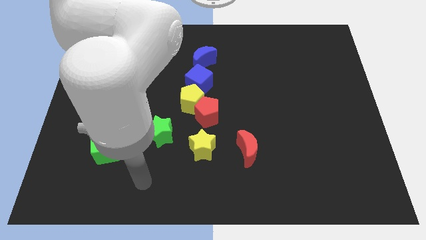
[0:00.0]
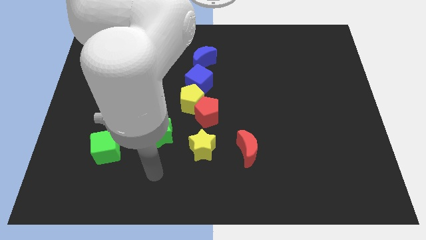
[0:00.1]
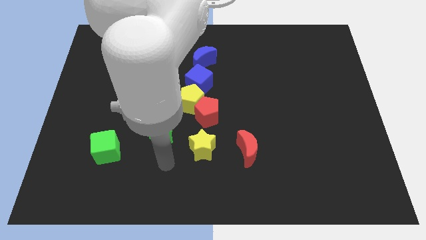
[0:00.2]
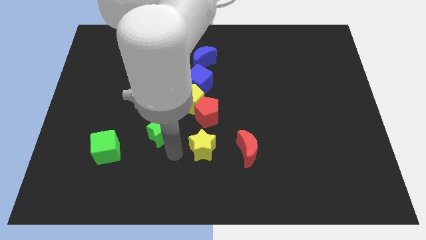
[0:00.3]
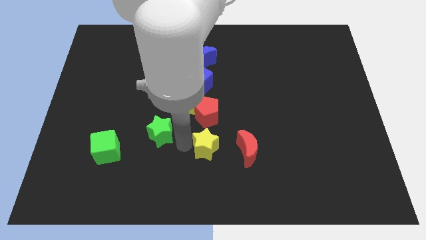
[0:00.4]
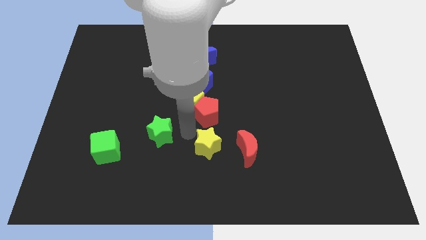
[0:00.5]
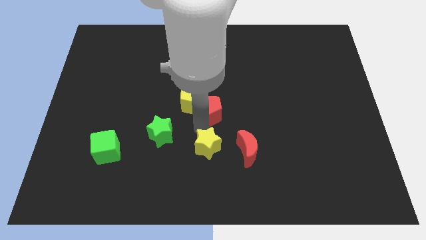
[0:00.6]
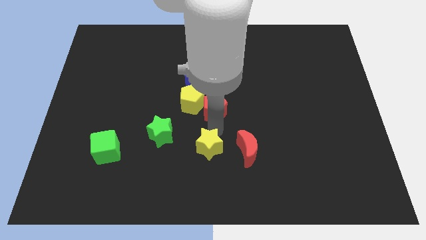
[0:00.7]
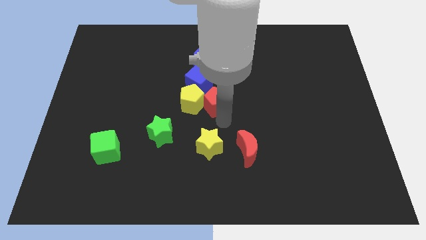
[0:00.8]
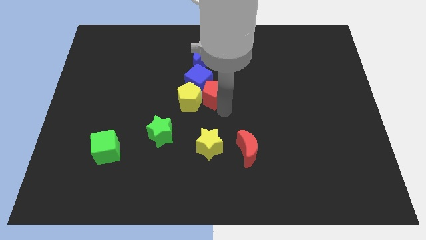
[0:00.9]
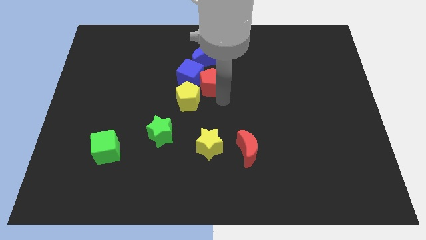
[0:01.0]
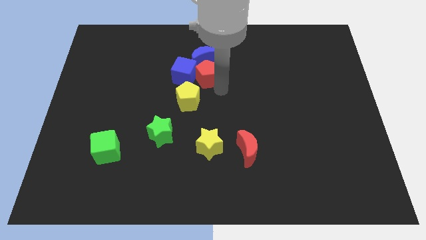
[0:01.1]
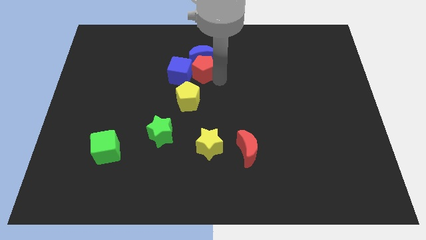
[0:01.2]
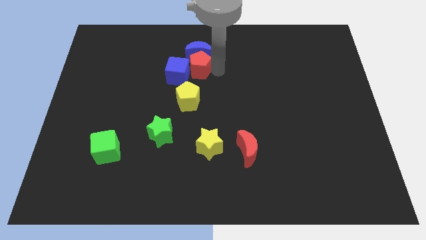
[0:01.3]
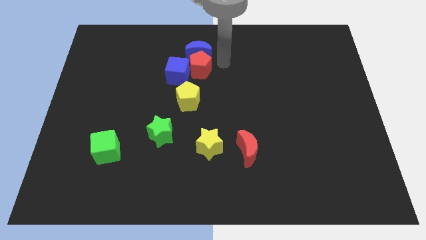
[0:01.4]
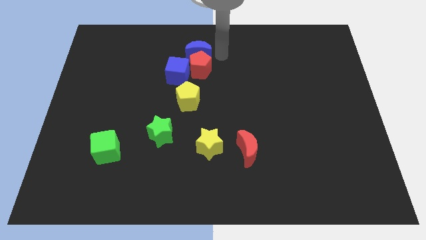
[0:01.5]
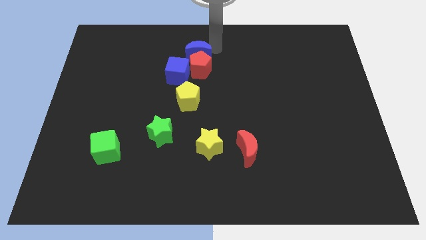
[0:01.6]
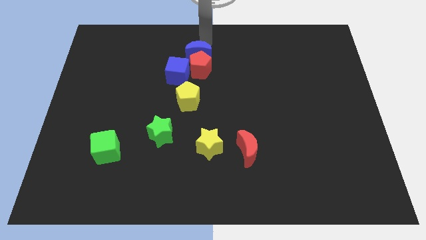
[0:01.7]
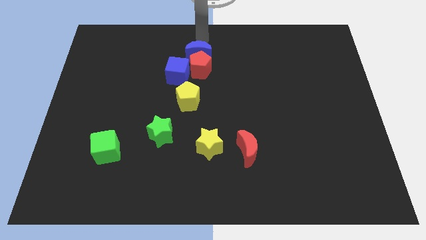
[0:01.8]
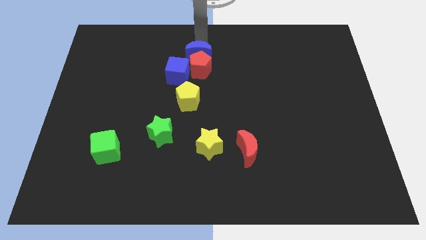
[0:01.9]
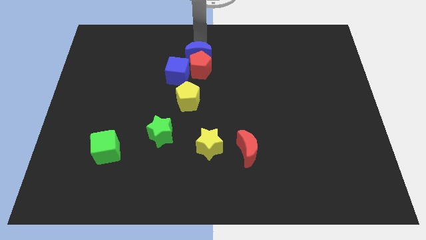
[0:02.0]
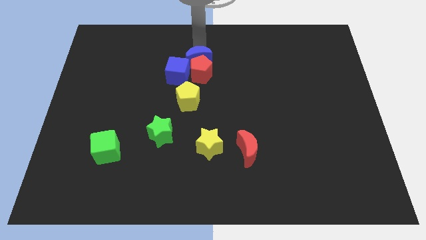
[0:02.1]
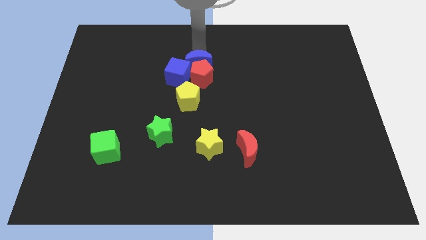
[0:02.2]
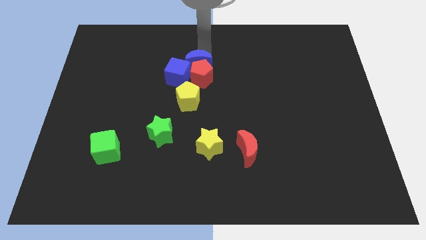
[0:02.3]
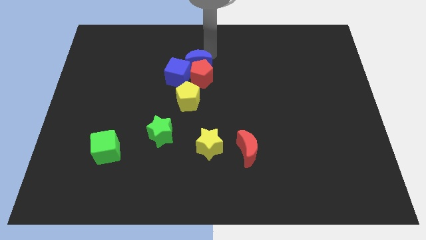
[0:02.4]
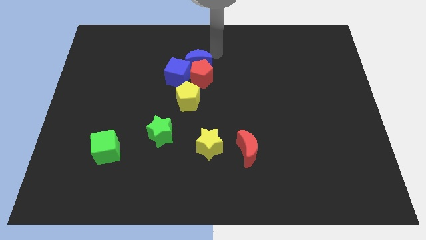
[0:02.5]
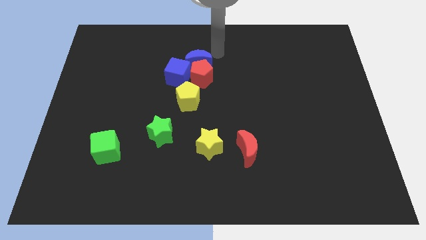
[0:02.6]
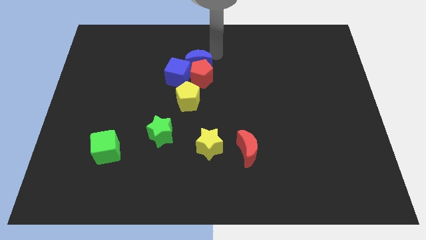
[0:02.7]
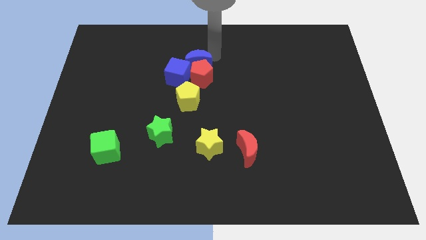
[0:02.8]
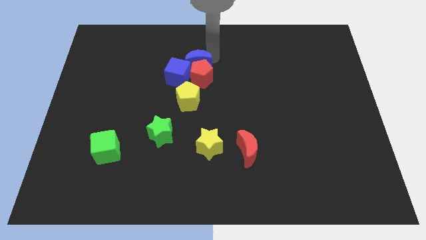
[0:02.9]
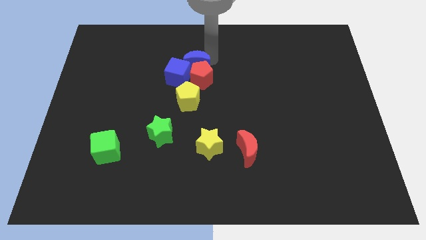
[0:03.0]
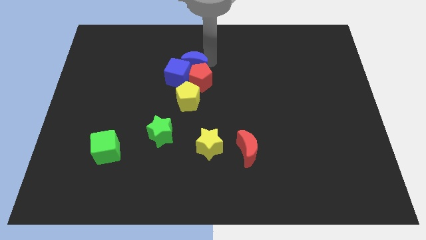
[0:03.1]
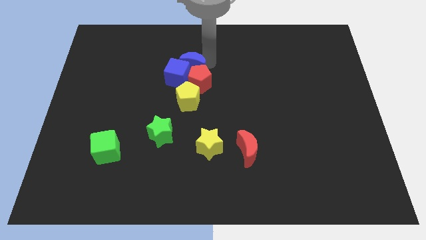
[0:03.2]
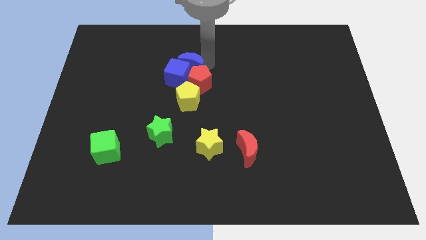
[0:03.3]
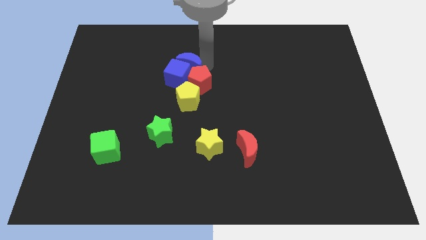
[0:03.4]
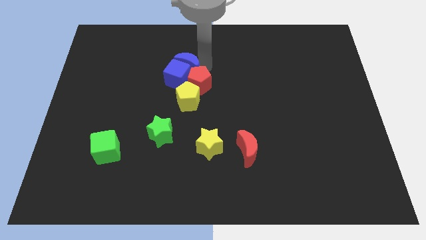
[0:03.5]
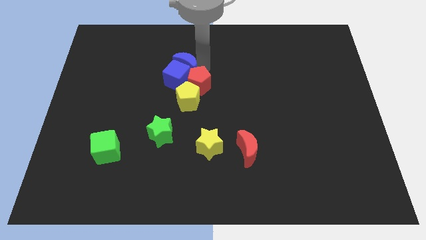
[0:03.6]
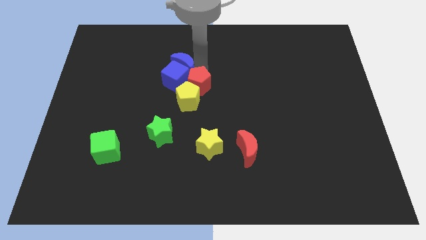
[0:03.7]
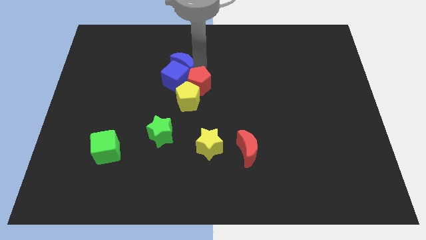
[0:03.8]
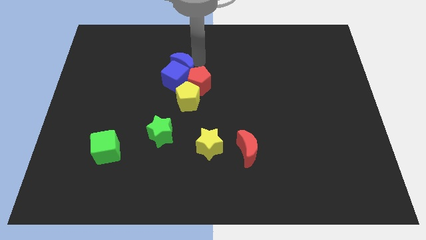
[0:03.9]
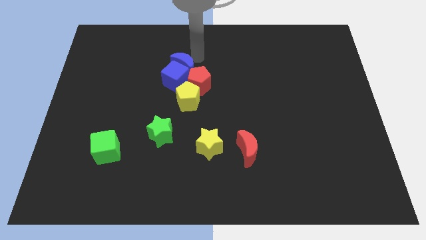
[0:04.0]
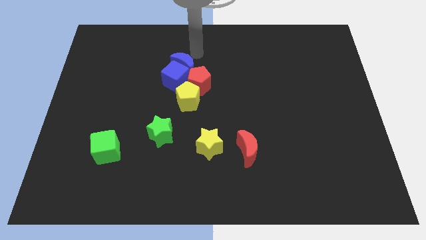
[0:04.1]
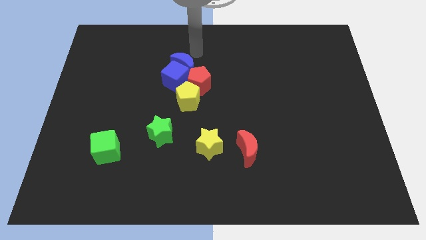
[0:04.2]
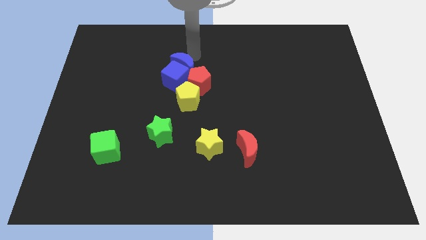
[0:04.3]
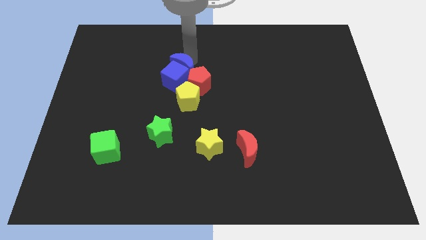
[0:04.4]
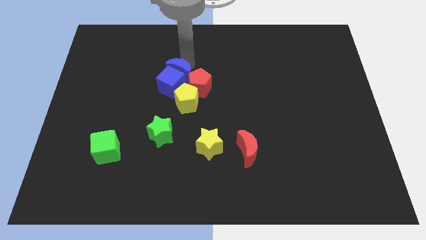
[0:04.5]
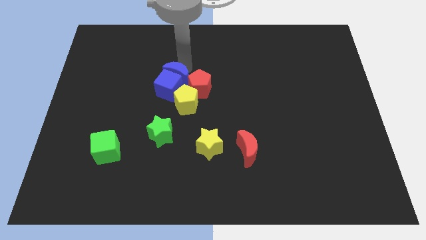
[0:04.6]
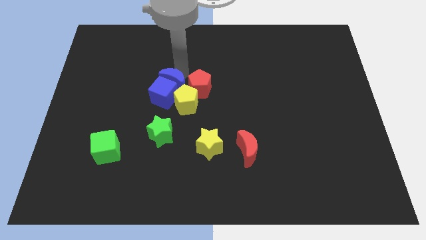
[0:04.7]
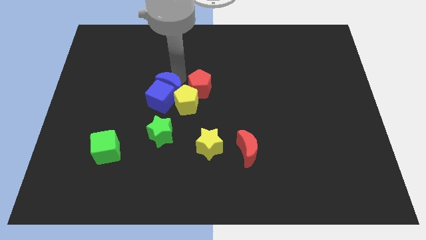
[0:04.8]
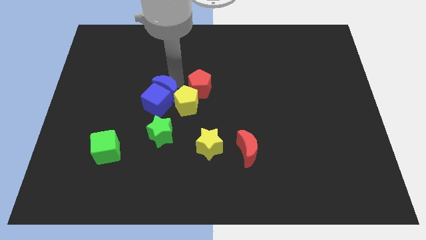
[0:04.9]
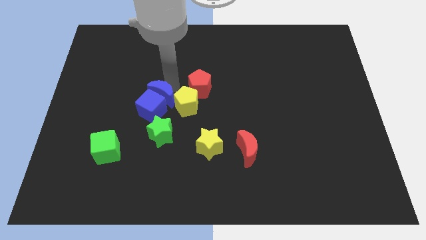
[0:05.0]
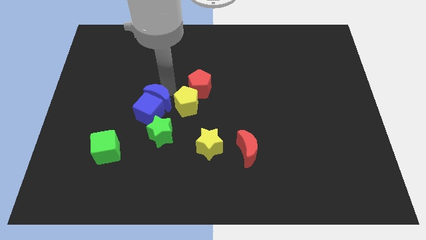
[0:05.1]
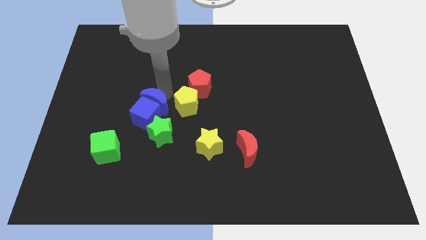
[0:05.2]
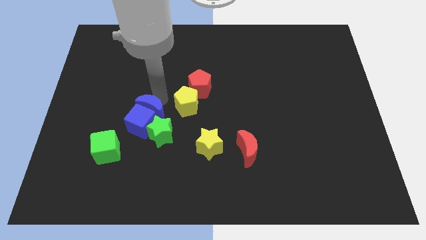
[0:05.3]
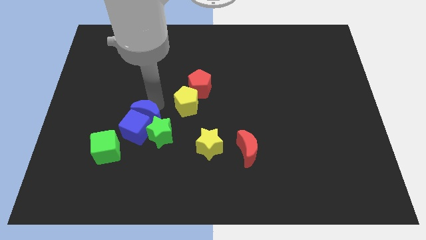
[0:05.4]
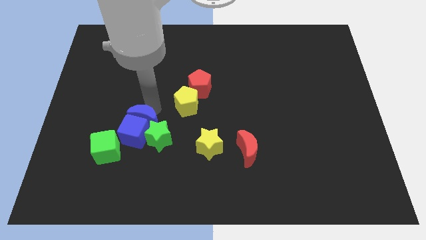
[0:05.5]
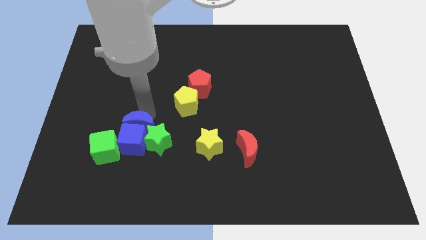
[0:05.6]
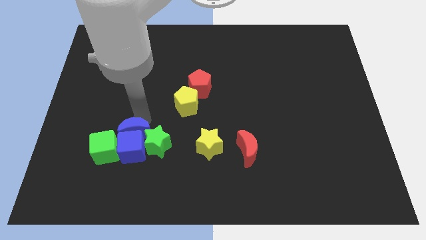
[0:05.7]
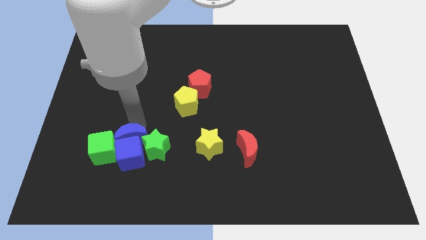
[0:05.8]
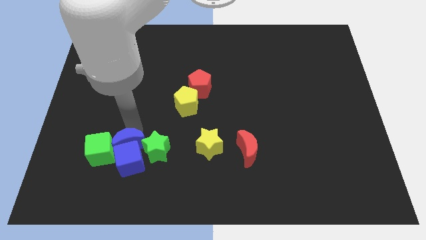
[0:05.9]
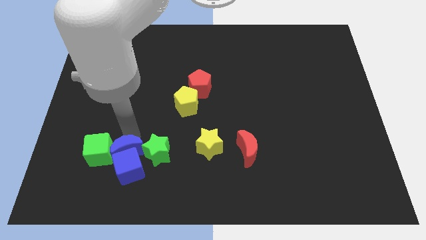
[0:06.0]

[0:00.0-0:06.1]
move the blue moon diagonally down and to the right of the green cube
